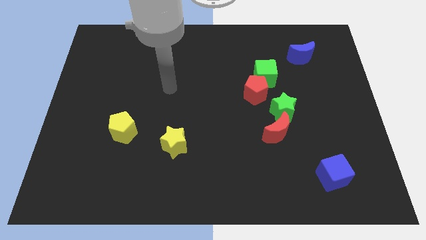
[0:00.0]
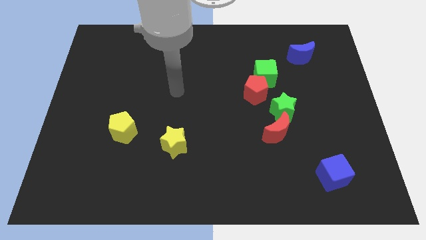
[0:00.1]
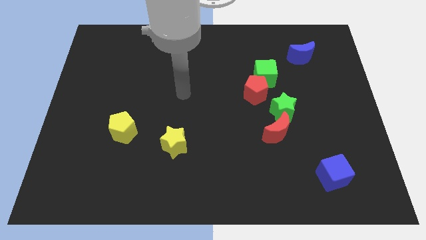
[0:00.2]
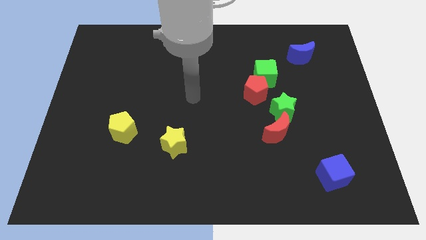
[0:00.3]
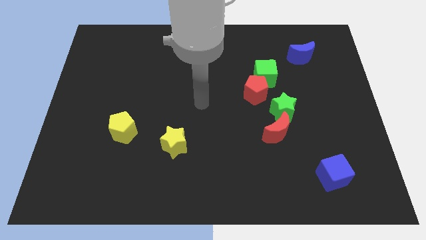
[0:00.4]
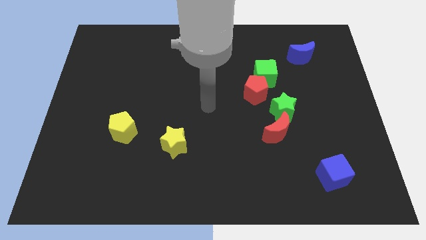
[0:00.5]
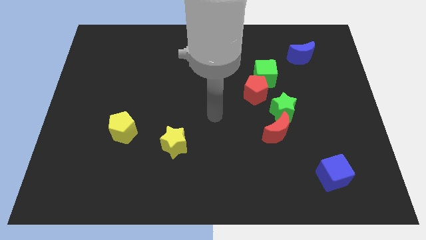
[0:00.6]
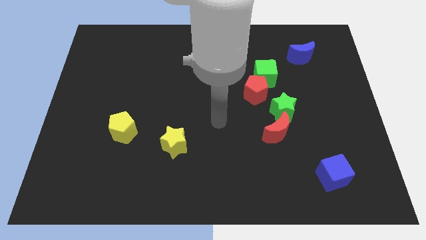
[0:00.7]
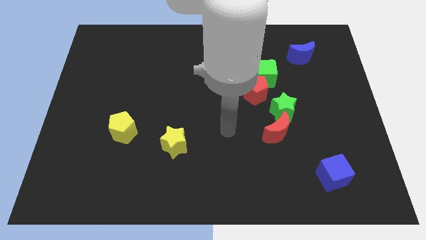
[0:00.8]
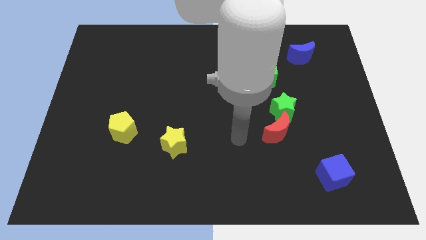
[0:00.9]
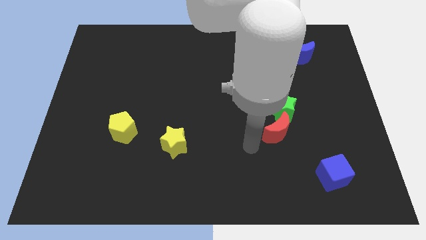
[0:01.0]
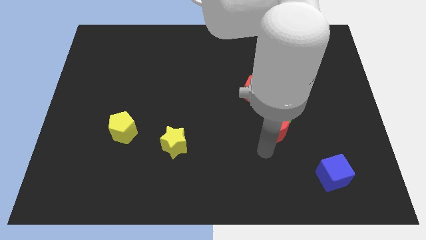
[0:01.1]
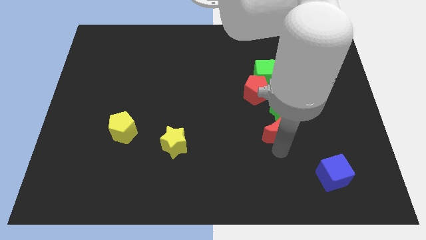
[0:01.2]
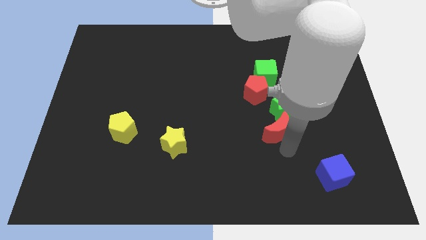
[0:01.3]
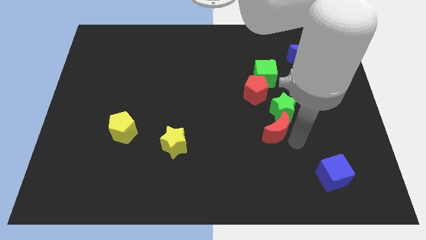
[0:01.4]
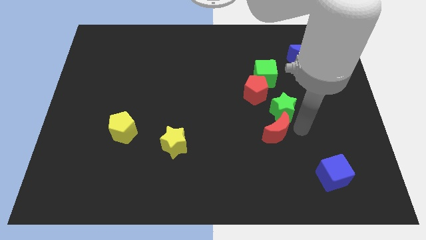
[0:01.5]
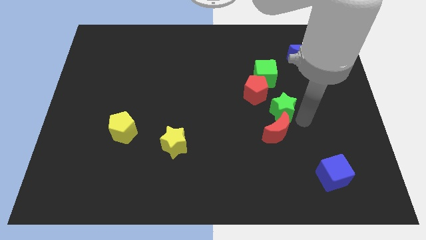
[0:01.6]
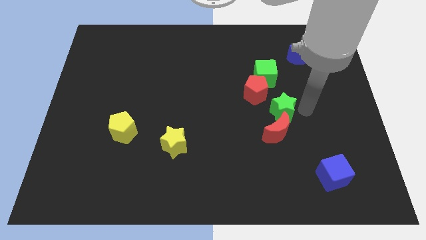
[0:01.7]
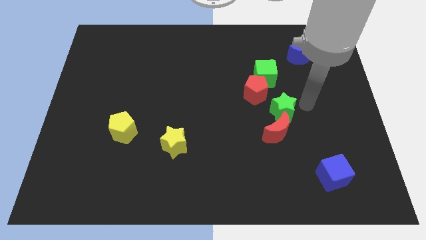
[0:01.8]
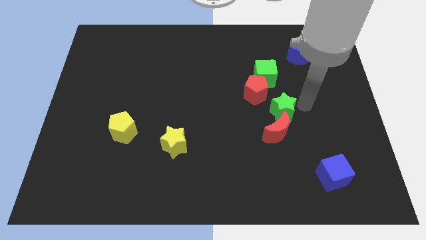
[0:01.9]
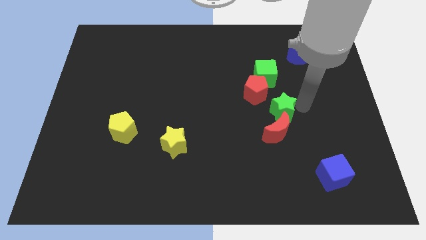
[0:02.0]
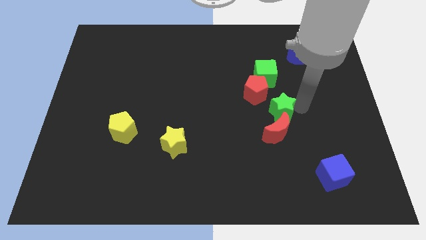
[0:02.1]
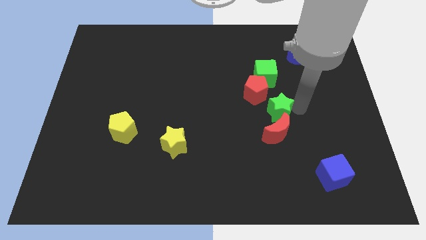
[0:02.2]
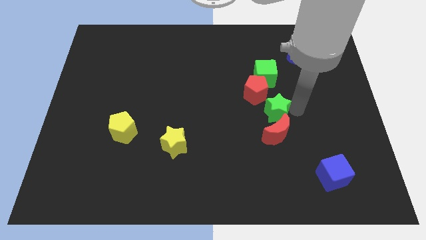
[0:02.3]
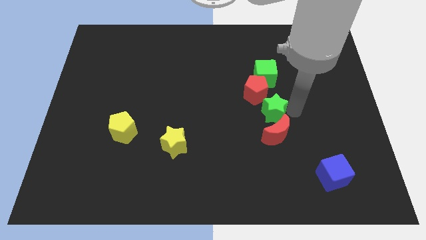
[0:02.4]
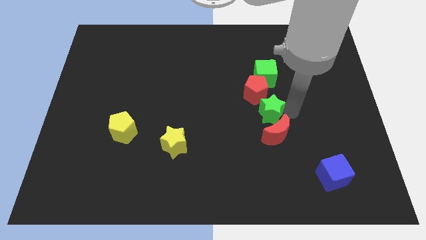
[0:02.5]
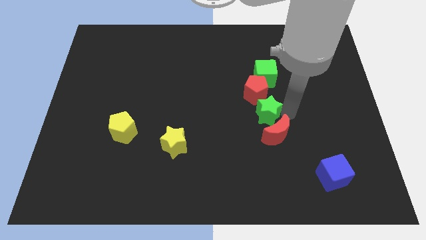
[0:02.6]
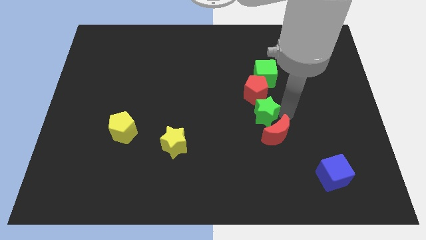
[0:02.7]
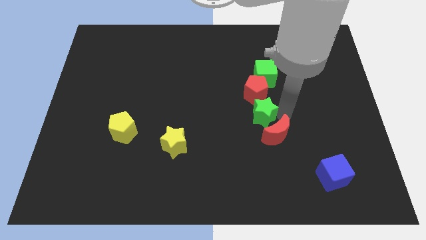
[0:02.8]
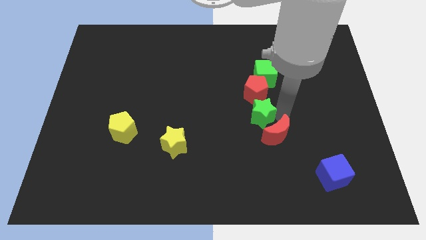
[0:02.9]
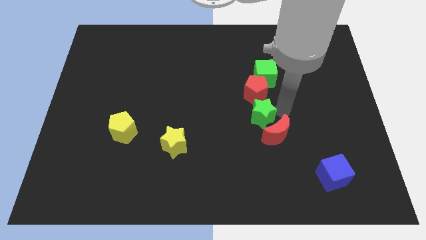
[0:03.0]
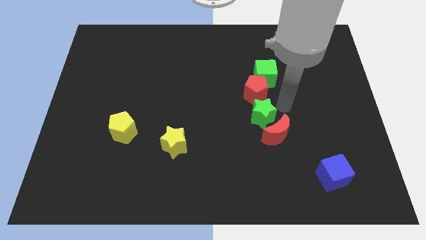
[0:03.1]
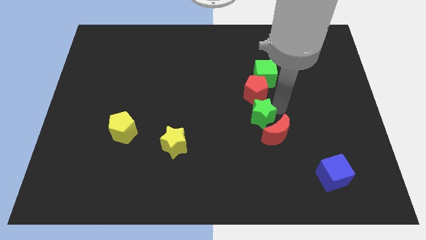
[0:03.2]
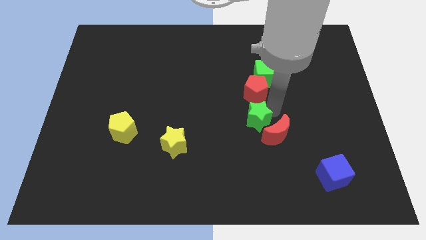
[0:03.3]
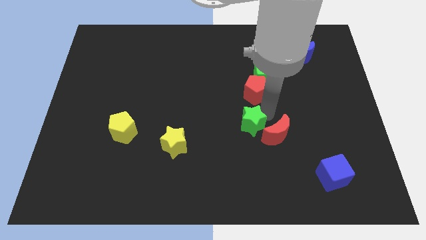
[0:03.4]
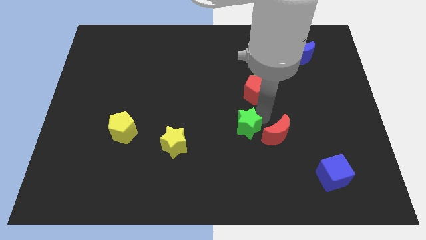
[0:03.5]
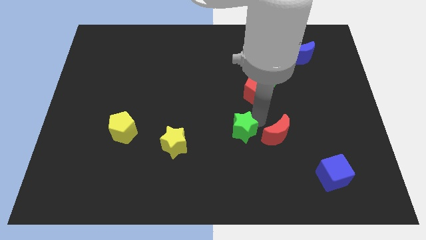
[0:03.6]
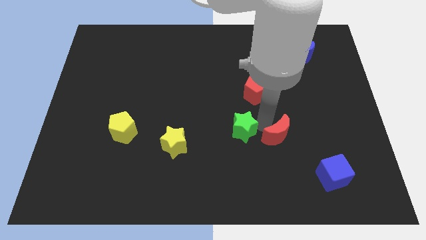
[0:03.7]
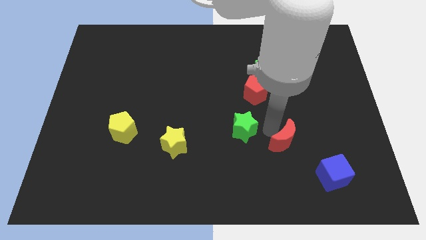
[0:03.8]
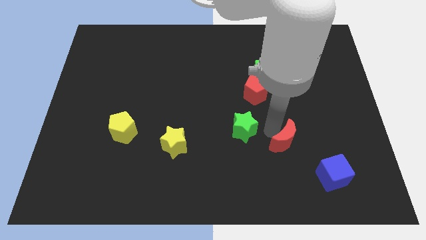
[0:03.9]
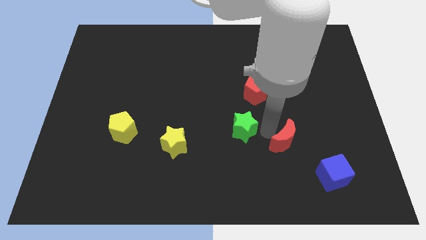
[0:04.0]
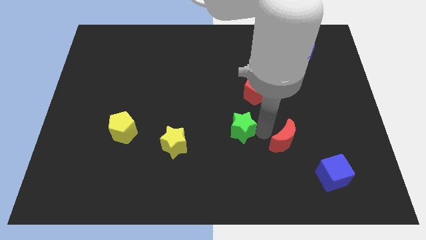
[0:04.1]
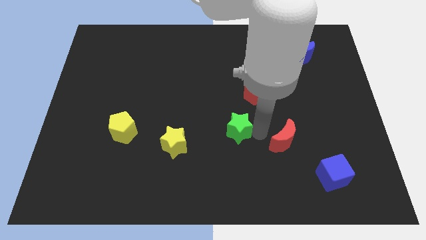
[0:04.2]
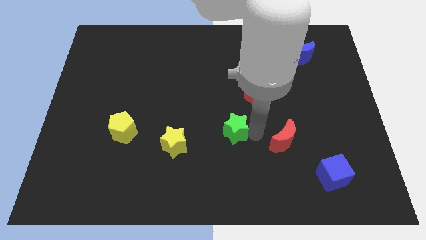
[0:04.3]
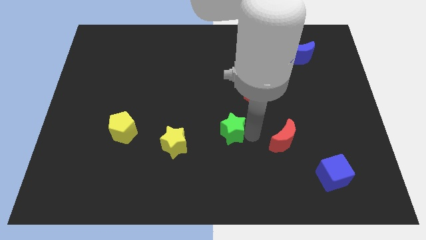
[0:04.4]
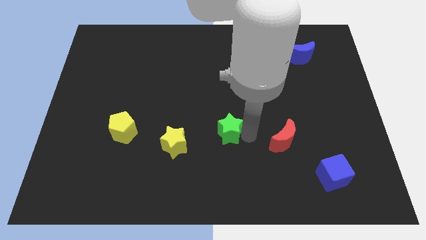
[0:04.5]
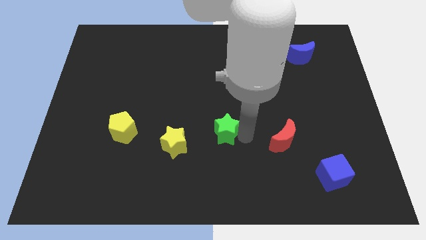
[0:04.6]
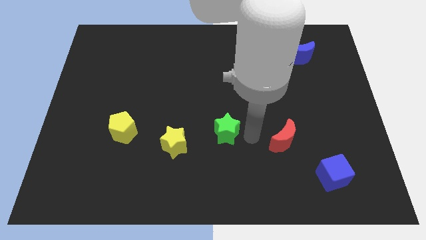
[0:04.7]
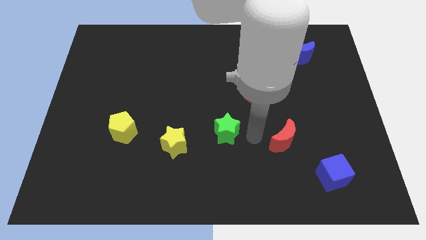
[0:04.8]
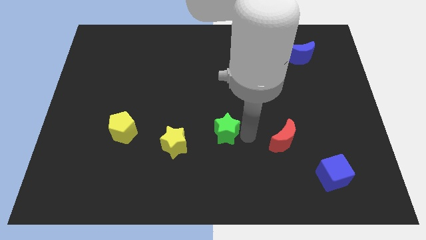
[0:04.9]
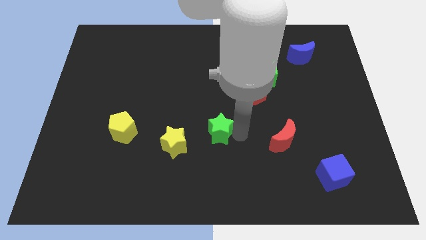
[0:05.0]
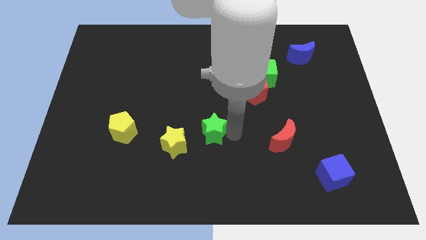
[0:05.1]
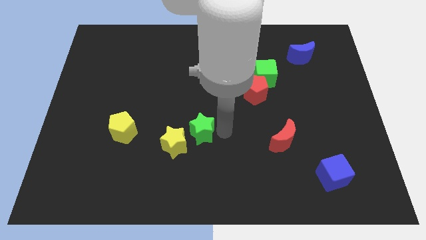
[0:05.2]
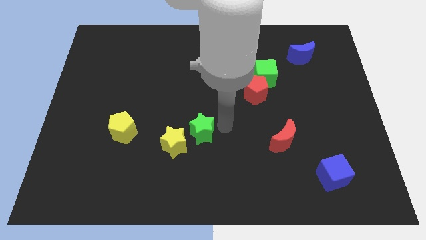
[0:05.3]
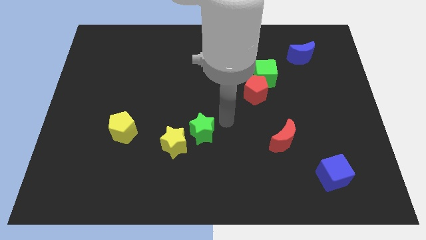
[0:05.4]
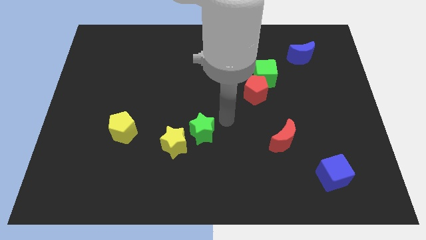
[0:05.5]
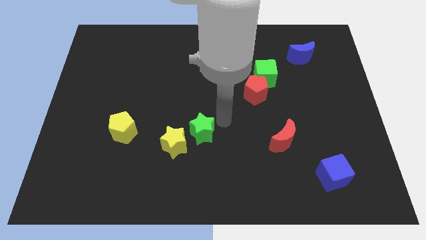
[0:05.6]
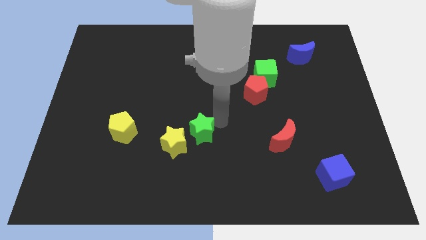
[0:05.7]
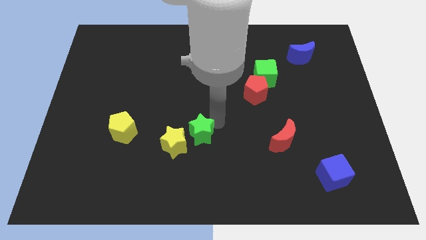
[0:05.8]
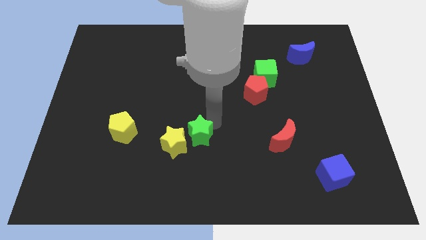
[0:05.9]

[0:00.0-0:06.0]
push the green star towards the yellow star
